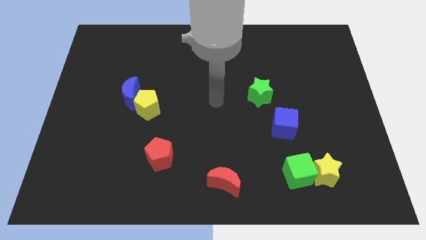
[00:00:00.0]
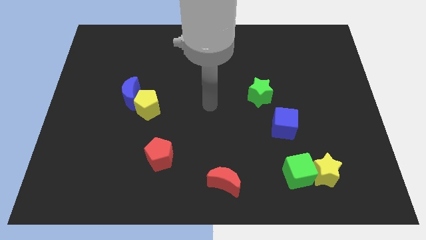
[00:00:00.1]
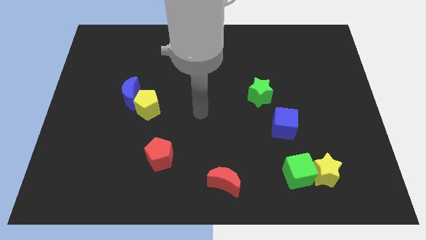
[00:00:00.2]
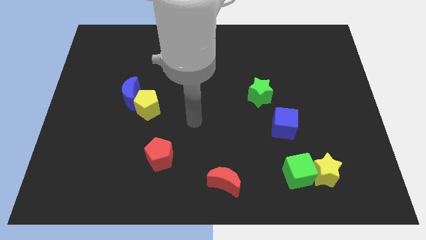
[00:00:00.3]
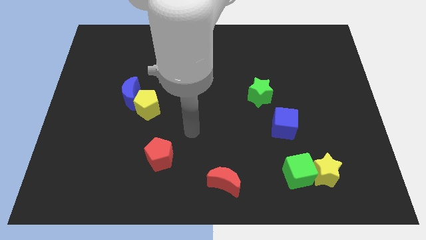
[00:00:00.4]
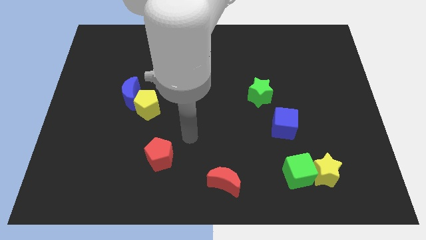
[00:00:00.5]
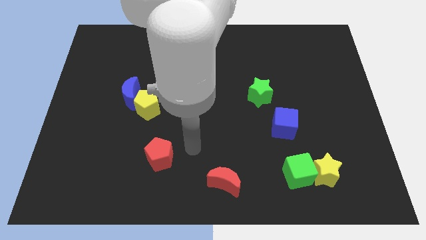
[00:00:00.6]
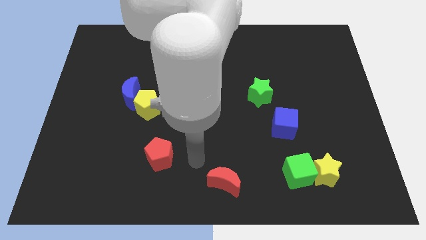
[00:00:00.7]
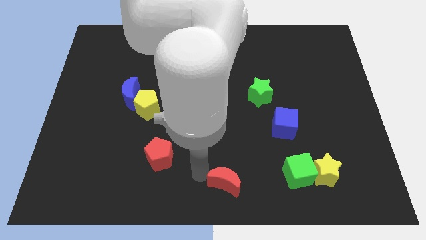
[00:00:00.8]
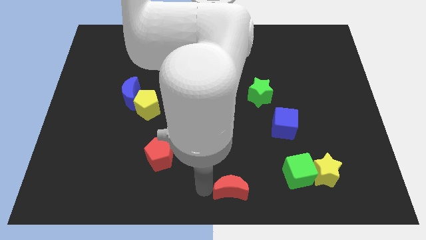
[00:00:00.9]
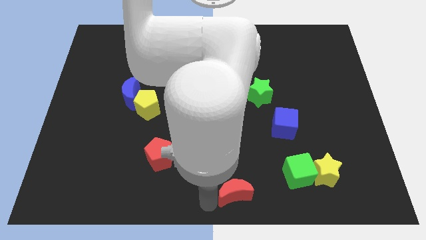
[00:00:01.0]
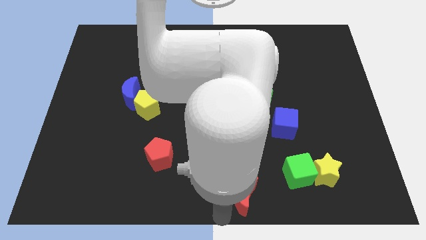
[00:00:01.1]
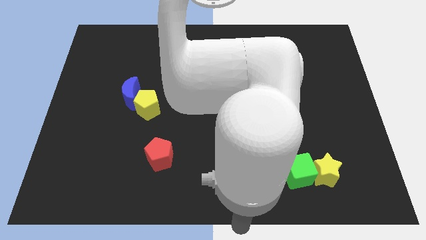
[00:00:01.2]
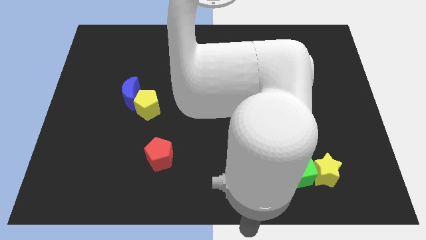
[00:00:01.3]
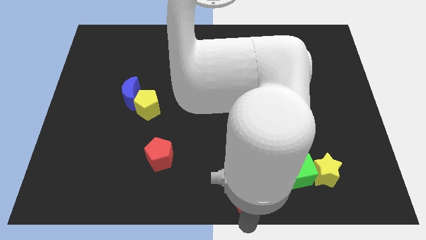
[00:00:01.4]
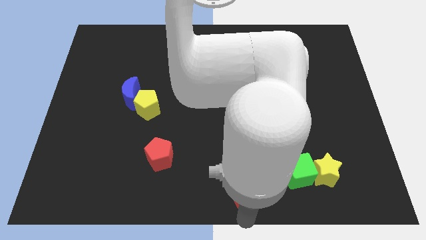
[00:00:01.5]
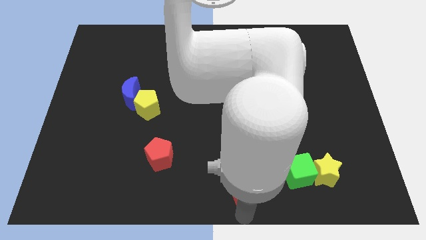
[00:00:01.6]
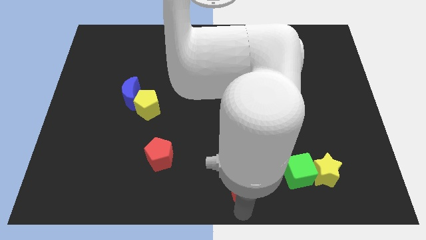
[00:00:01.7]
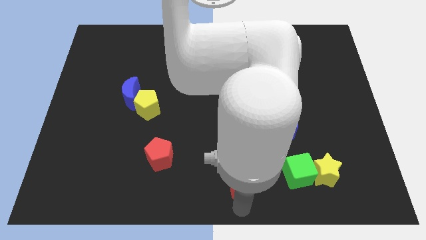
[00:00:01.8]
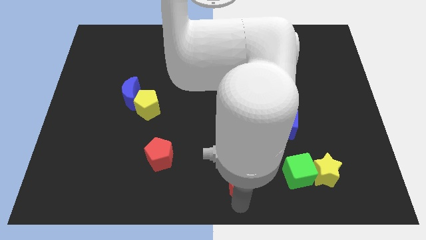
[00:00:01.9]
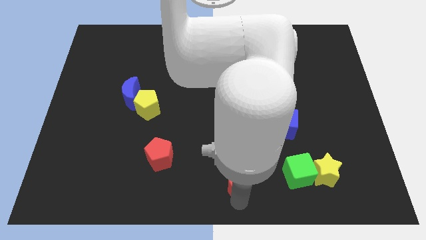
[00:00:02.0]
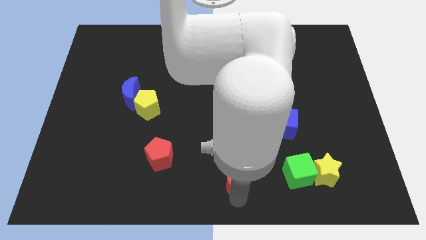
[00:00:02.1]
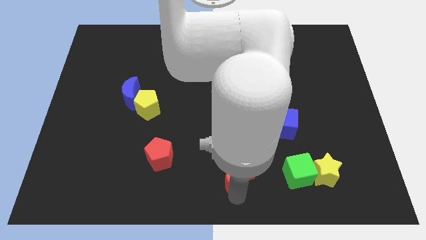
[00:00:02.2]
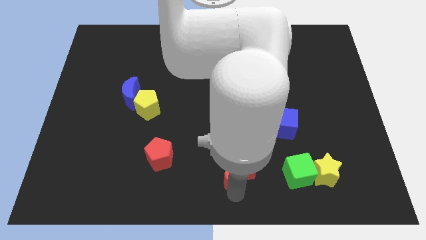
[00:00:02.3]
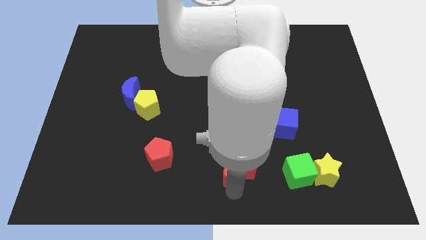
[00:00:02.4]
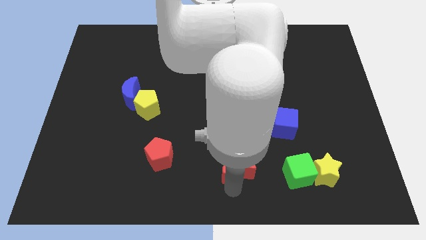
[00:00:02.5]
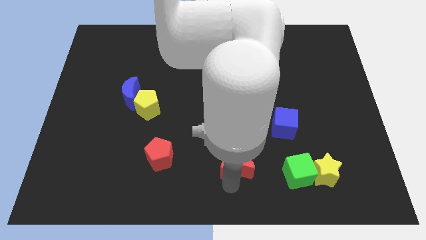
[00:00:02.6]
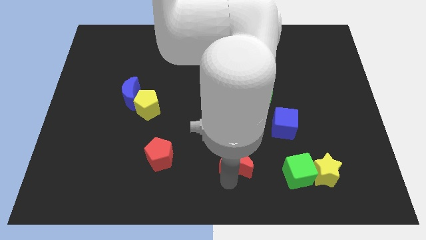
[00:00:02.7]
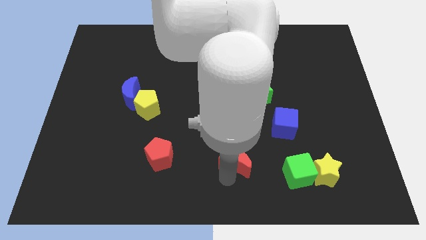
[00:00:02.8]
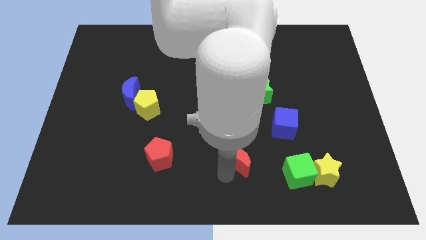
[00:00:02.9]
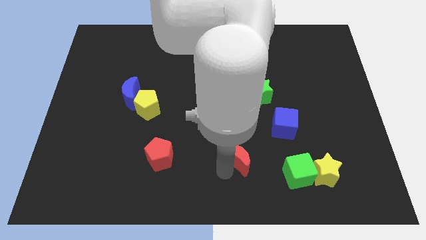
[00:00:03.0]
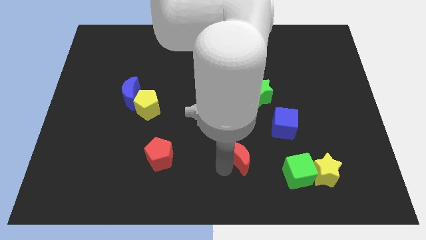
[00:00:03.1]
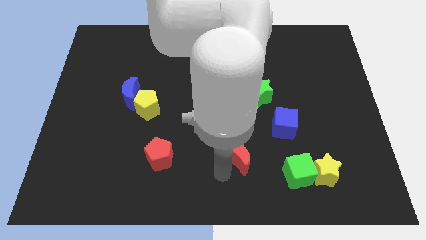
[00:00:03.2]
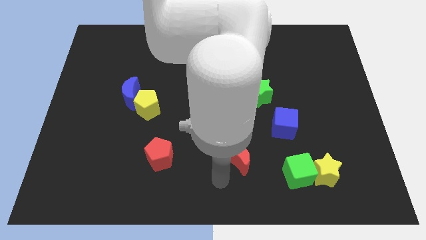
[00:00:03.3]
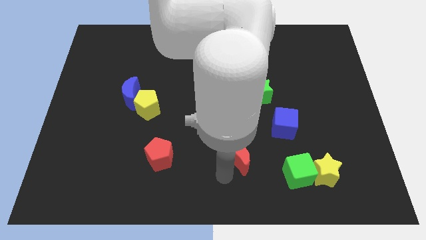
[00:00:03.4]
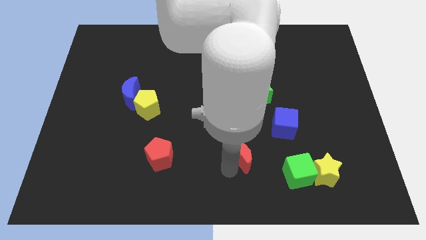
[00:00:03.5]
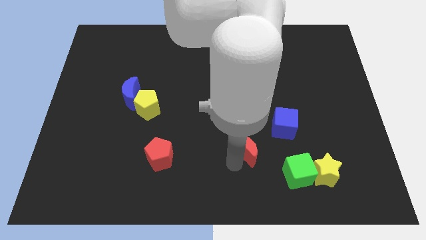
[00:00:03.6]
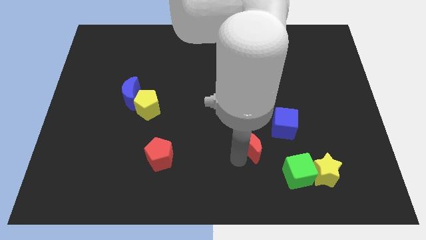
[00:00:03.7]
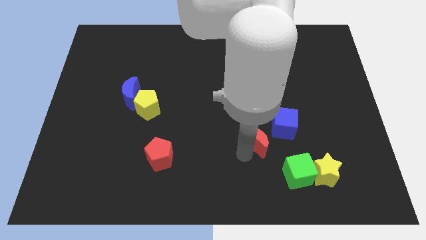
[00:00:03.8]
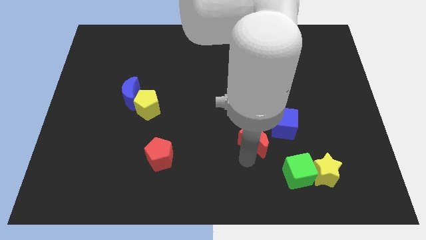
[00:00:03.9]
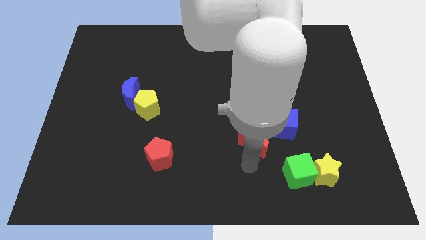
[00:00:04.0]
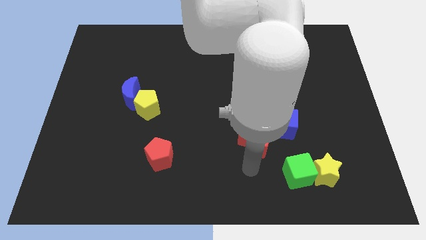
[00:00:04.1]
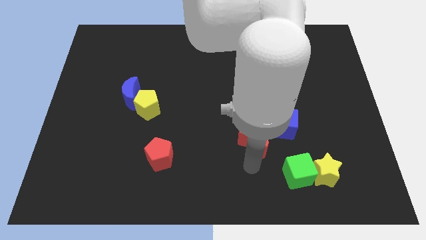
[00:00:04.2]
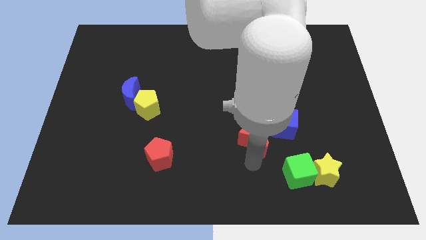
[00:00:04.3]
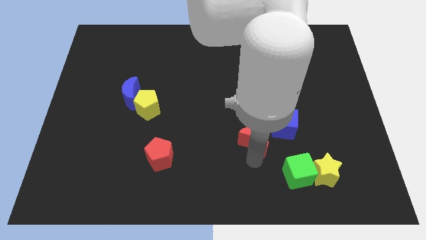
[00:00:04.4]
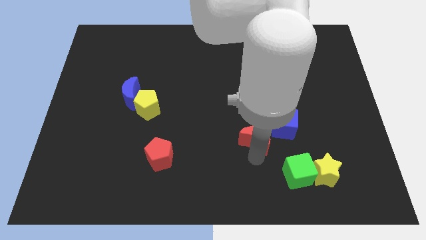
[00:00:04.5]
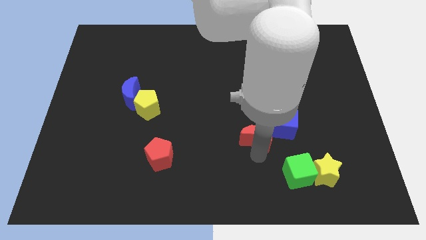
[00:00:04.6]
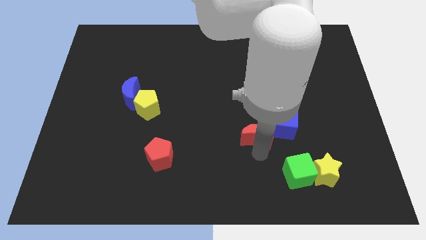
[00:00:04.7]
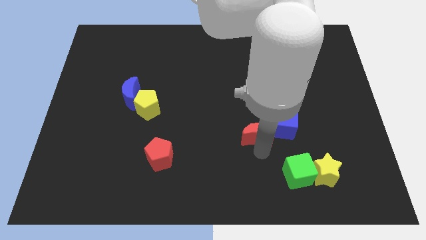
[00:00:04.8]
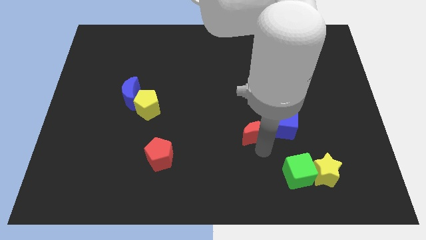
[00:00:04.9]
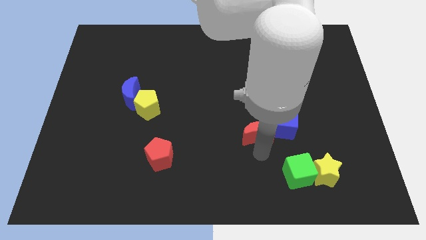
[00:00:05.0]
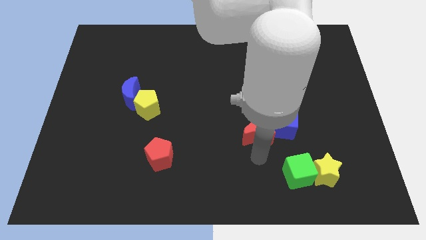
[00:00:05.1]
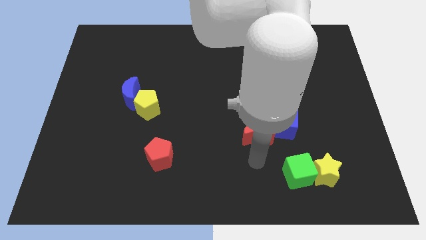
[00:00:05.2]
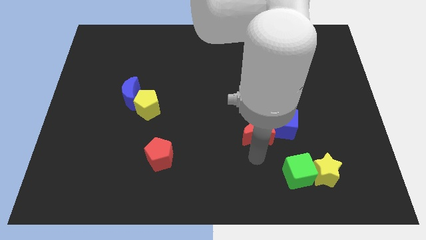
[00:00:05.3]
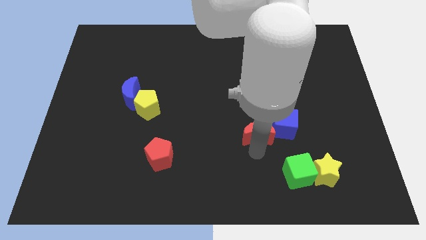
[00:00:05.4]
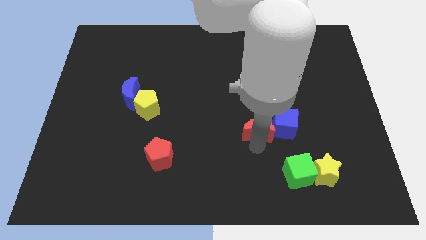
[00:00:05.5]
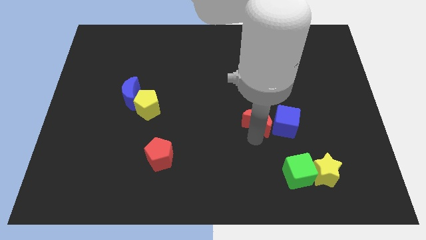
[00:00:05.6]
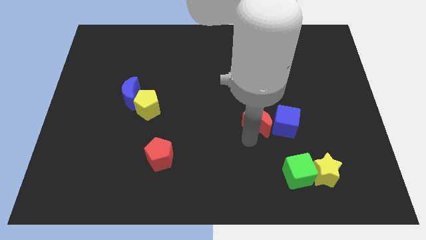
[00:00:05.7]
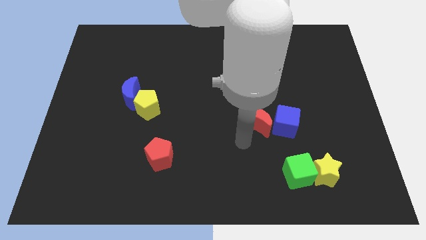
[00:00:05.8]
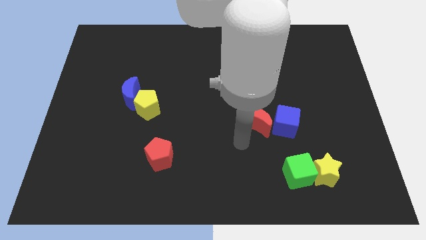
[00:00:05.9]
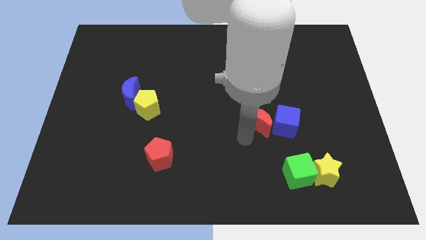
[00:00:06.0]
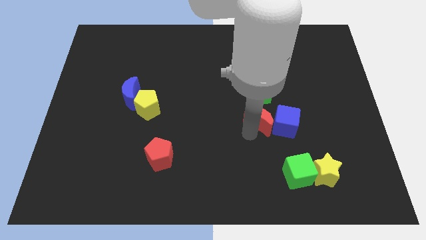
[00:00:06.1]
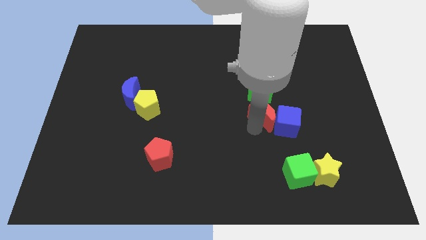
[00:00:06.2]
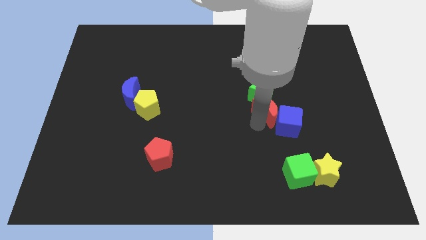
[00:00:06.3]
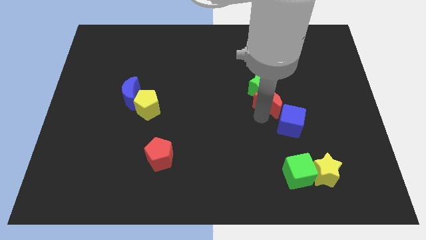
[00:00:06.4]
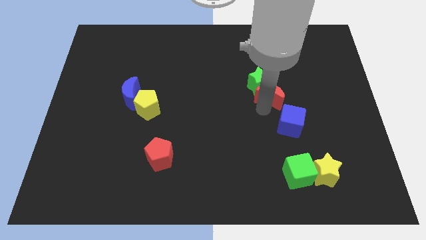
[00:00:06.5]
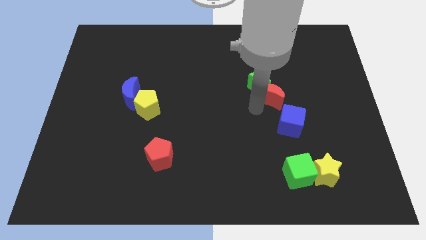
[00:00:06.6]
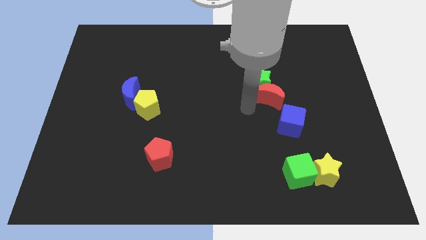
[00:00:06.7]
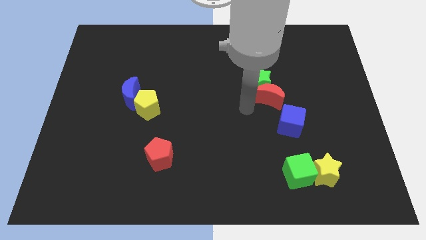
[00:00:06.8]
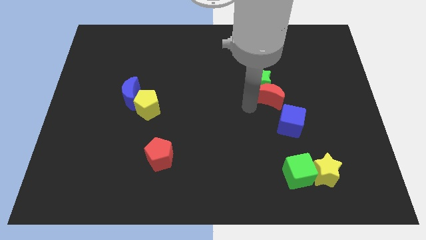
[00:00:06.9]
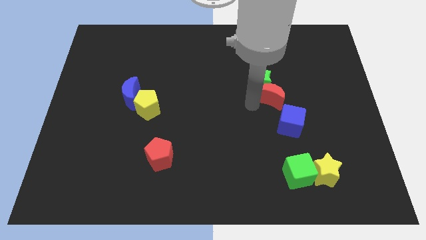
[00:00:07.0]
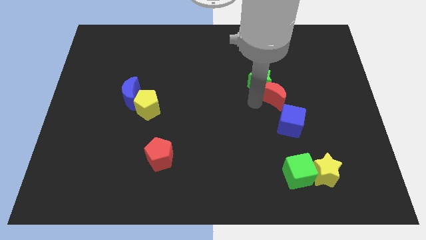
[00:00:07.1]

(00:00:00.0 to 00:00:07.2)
slide the red moon just right of the green star
